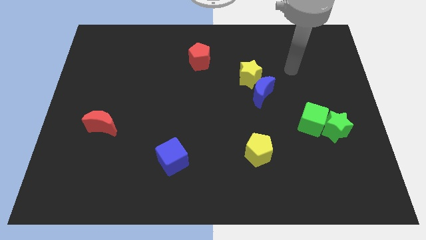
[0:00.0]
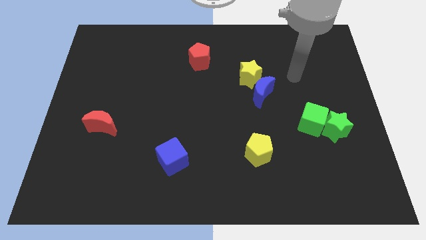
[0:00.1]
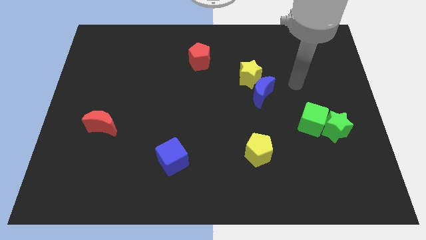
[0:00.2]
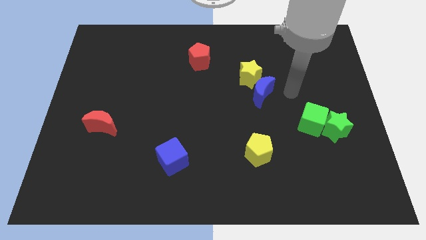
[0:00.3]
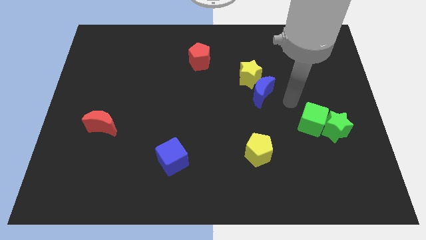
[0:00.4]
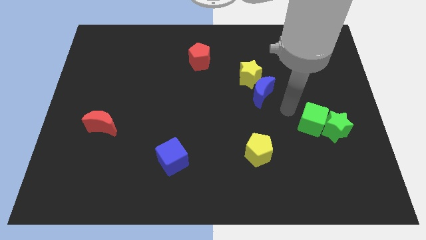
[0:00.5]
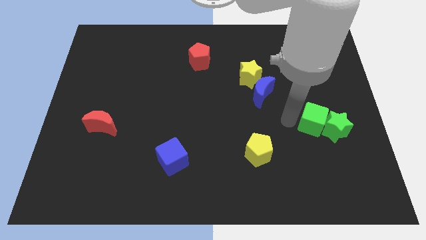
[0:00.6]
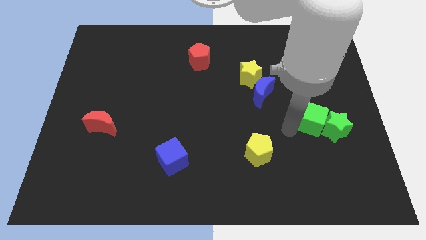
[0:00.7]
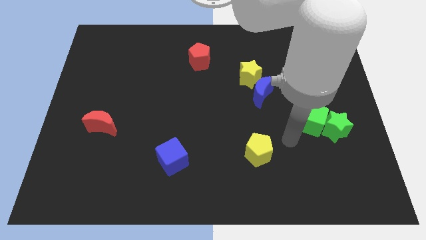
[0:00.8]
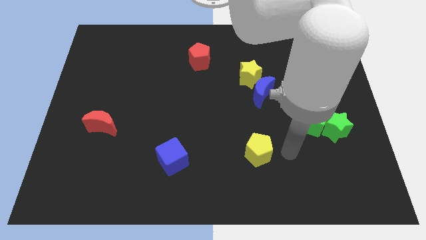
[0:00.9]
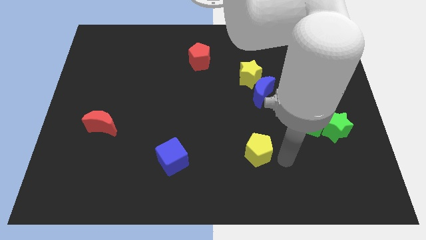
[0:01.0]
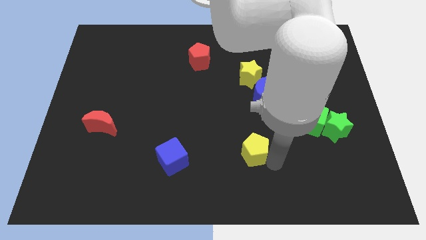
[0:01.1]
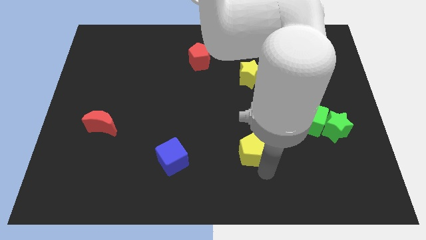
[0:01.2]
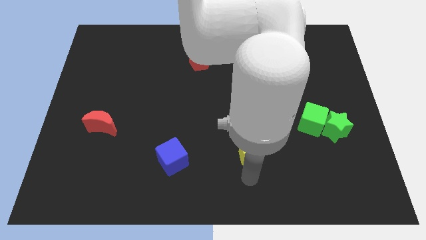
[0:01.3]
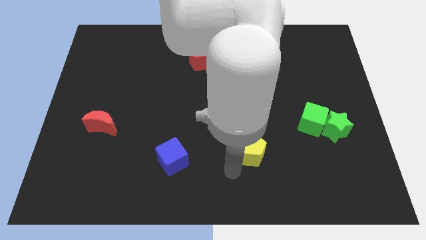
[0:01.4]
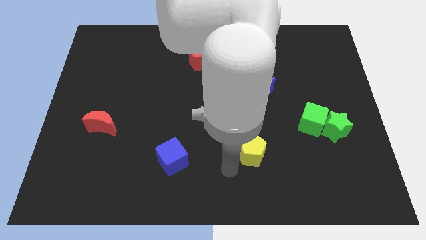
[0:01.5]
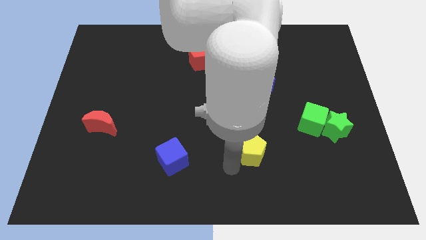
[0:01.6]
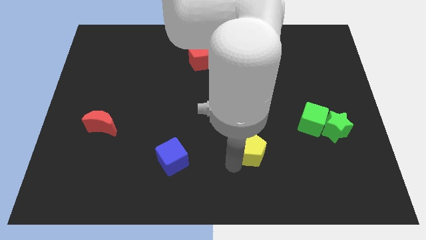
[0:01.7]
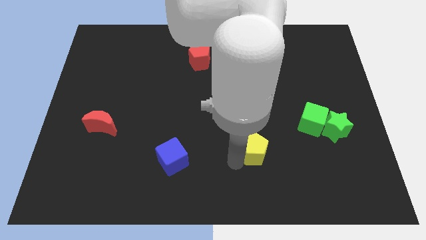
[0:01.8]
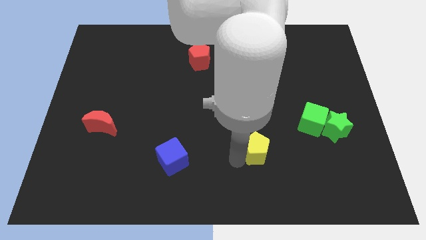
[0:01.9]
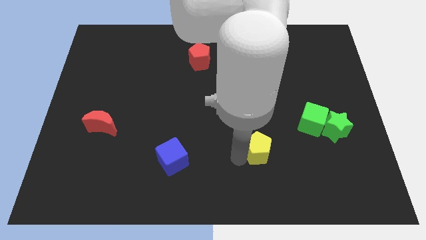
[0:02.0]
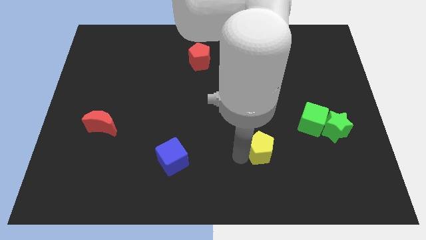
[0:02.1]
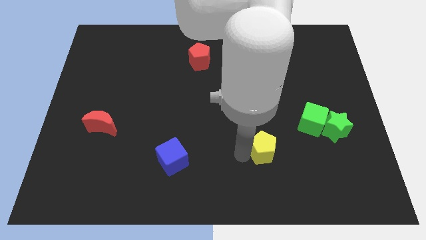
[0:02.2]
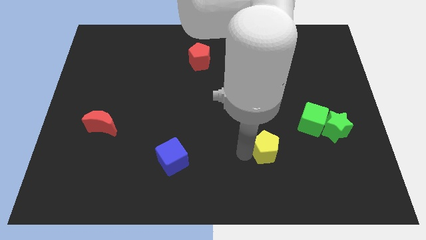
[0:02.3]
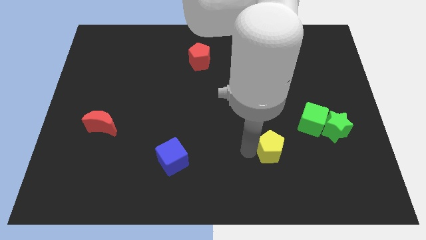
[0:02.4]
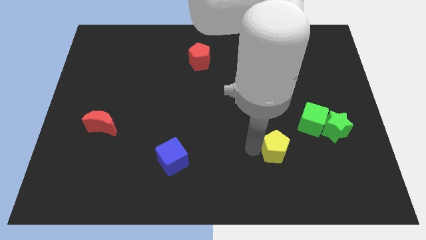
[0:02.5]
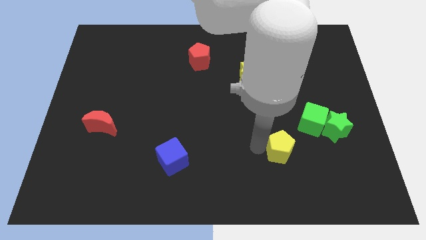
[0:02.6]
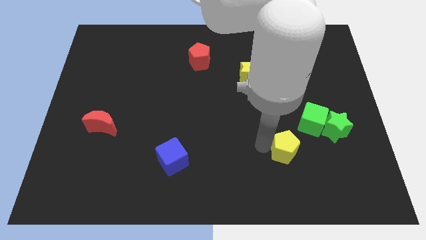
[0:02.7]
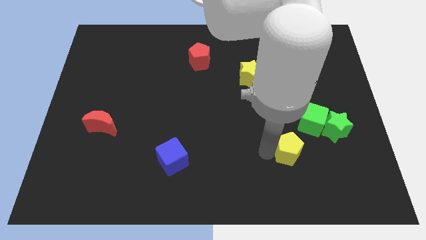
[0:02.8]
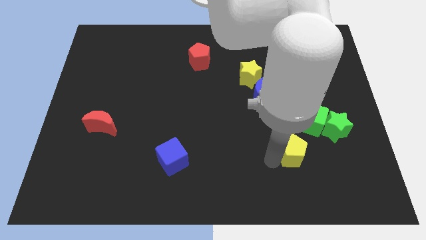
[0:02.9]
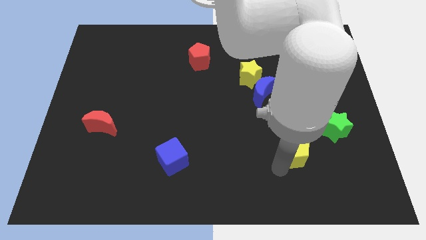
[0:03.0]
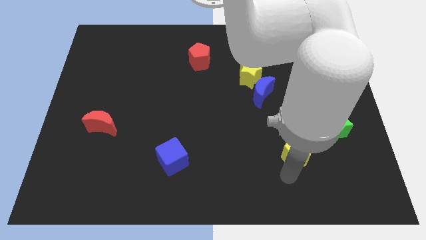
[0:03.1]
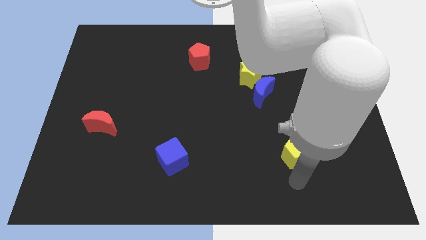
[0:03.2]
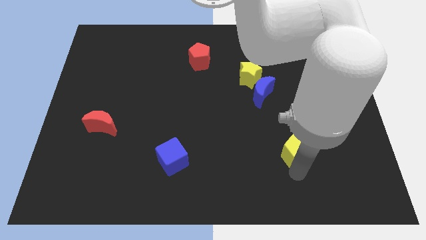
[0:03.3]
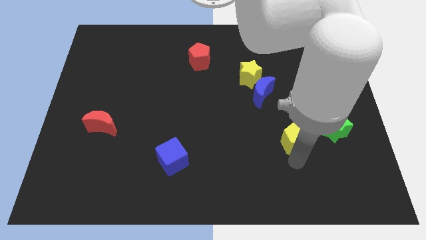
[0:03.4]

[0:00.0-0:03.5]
push the yellow pentagon a bit upwards and right diagonally

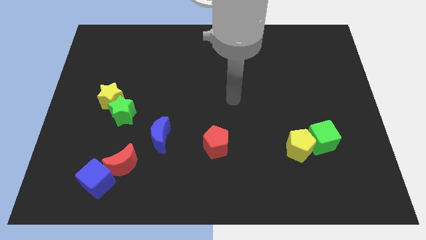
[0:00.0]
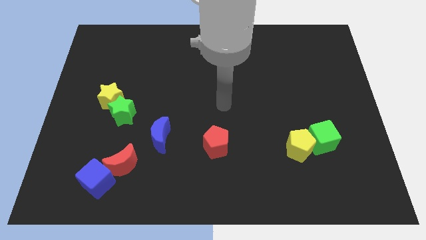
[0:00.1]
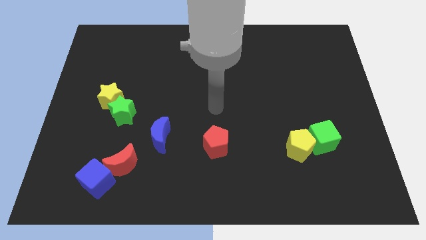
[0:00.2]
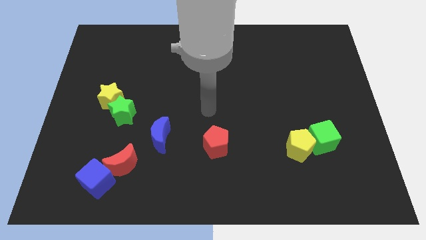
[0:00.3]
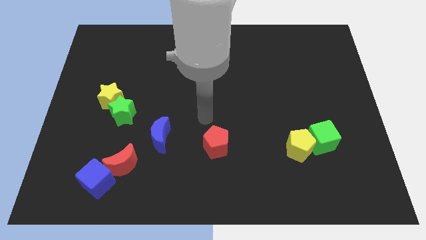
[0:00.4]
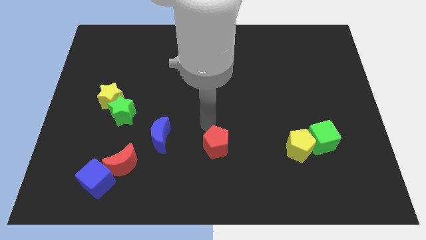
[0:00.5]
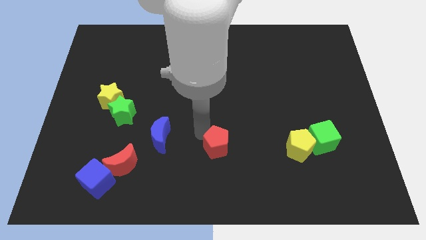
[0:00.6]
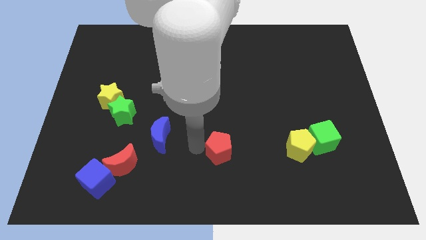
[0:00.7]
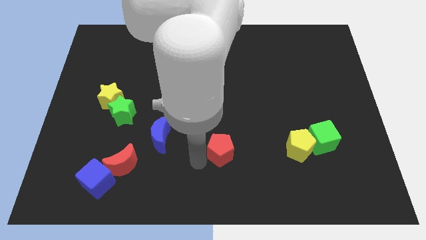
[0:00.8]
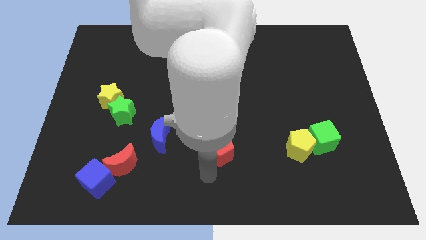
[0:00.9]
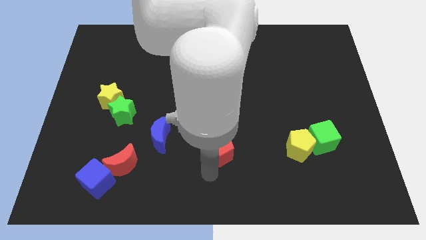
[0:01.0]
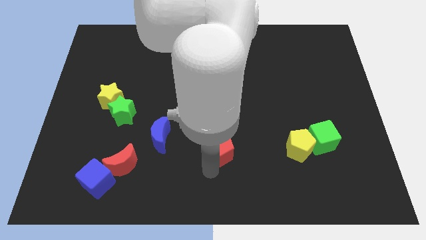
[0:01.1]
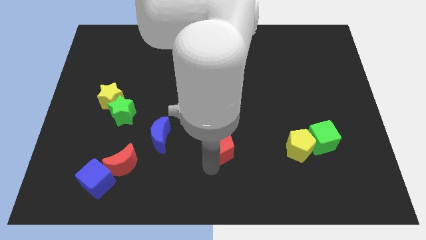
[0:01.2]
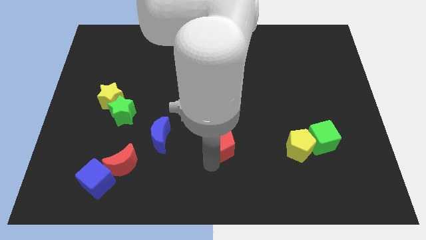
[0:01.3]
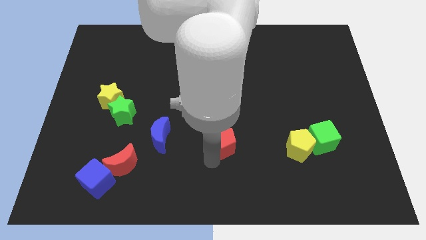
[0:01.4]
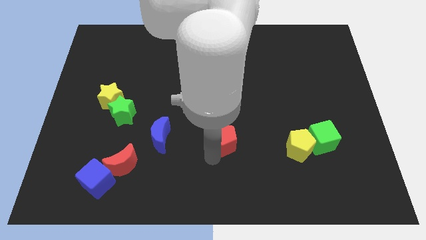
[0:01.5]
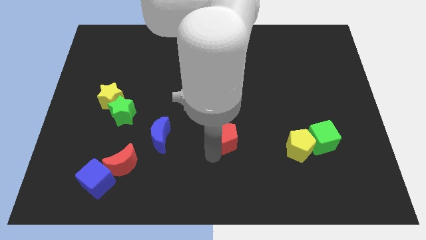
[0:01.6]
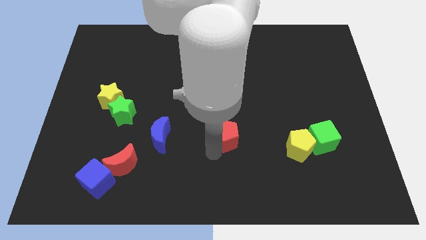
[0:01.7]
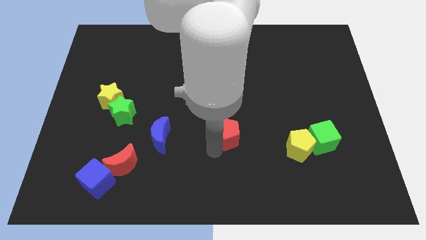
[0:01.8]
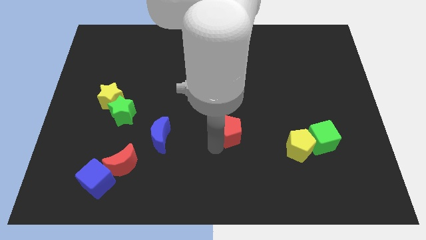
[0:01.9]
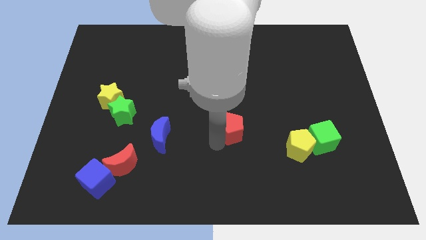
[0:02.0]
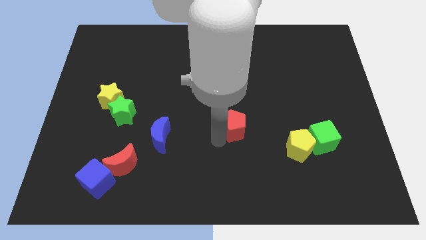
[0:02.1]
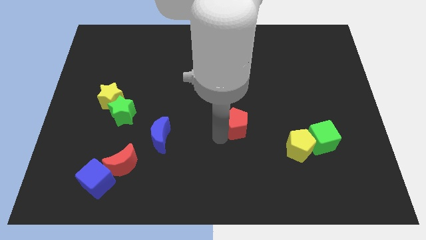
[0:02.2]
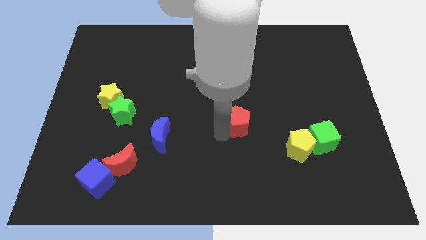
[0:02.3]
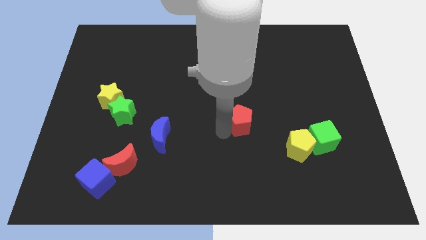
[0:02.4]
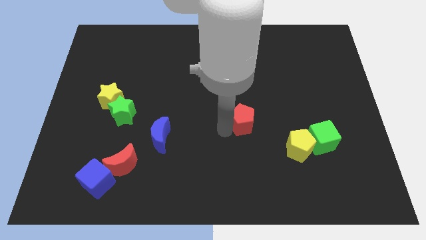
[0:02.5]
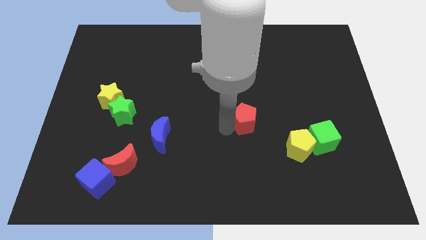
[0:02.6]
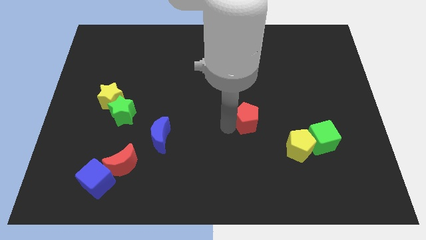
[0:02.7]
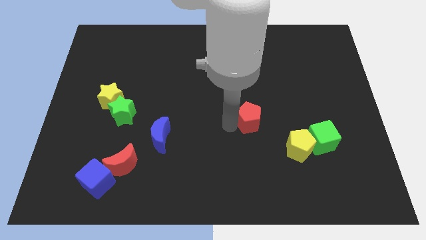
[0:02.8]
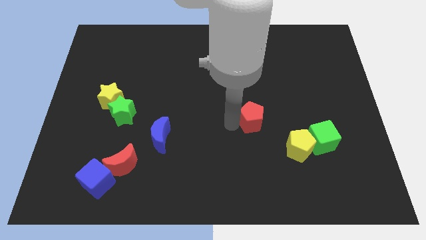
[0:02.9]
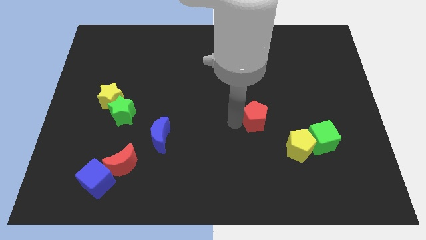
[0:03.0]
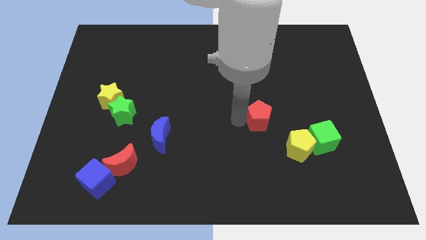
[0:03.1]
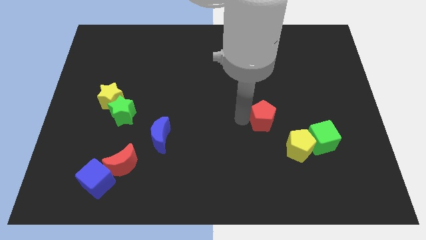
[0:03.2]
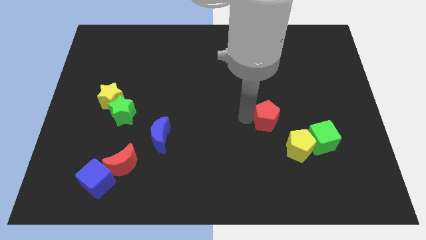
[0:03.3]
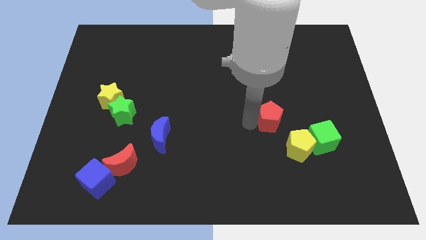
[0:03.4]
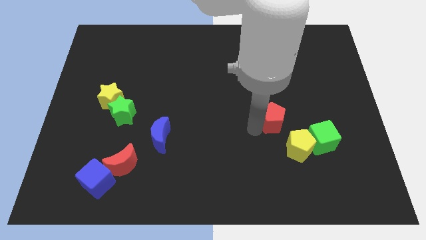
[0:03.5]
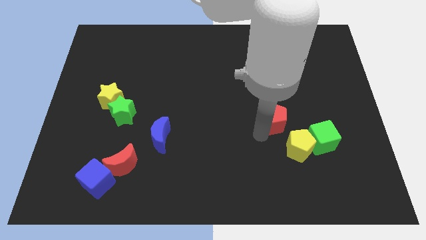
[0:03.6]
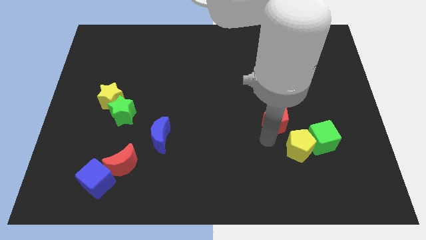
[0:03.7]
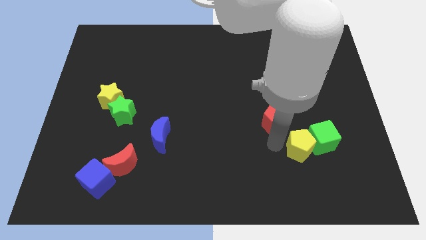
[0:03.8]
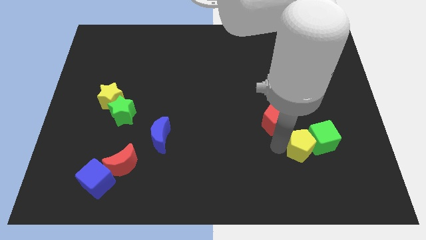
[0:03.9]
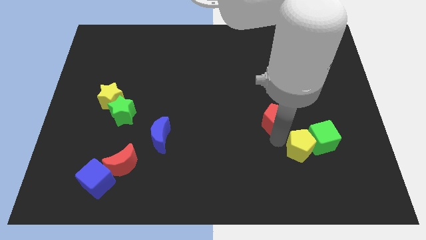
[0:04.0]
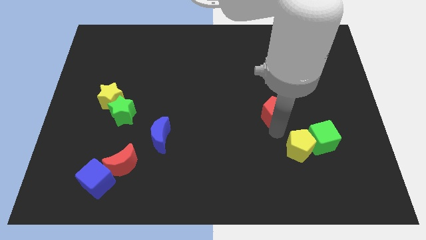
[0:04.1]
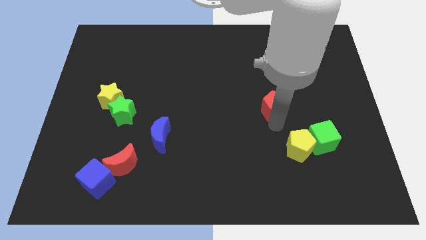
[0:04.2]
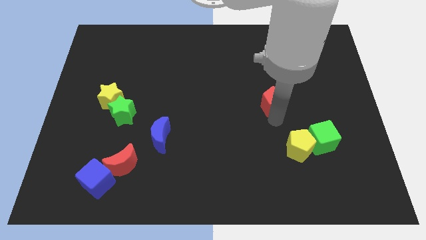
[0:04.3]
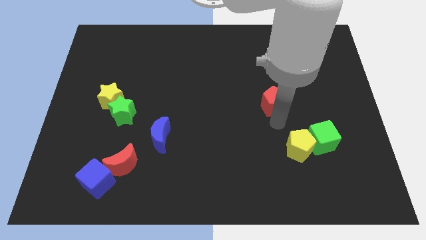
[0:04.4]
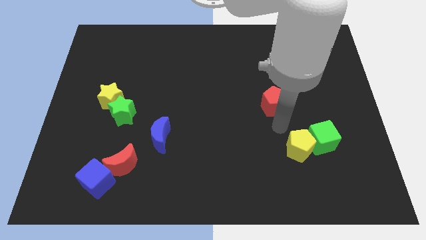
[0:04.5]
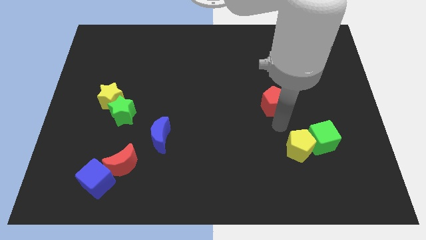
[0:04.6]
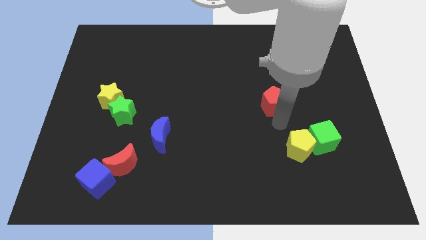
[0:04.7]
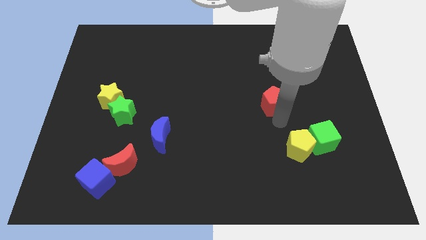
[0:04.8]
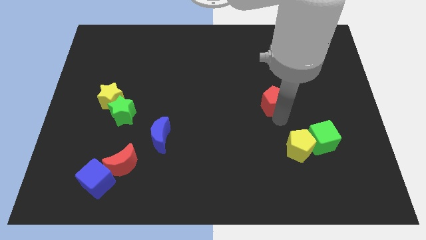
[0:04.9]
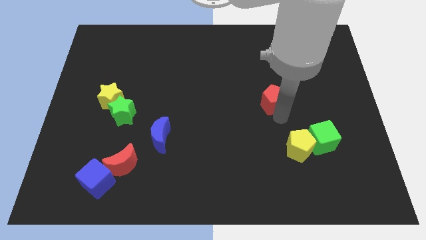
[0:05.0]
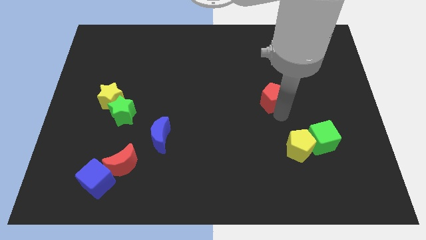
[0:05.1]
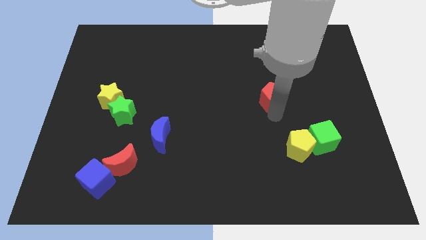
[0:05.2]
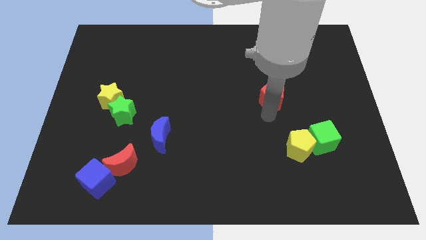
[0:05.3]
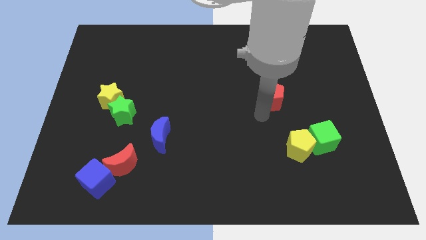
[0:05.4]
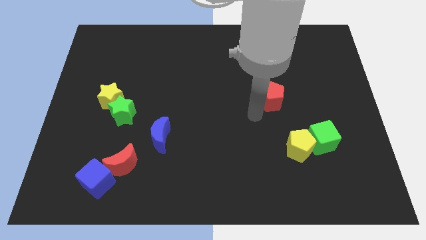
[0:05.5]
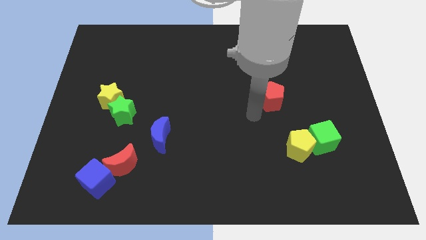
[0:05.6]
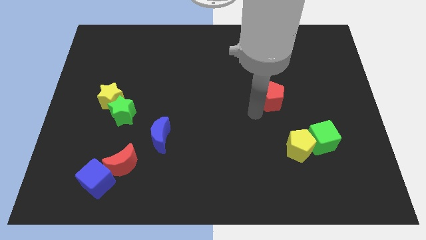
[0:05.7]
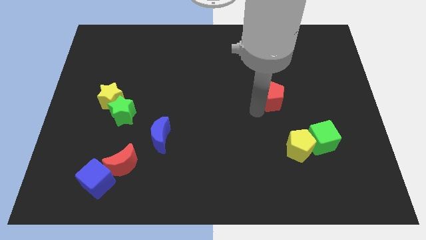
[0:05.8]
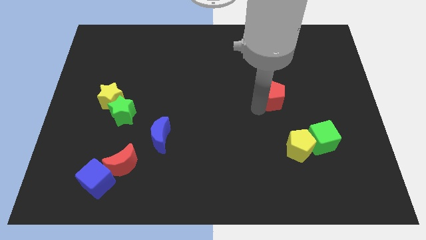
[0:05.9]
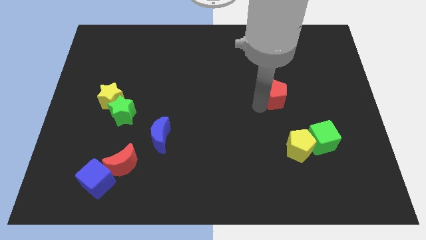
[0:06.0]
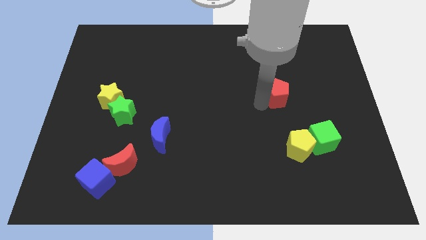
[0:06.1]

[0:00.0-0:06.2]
slide the red pentagon diagonally upwards and to the right
